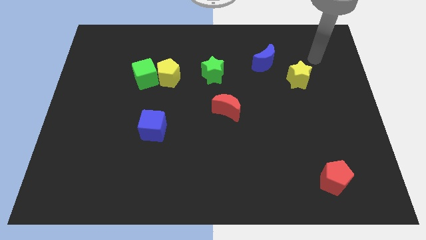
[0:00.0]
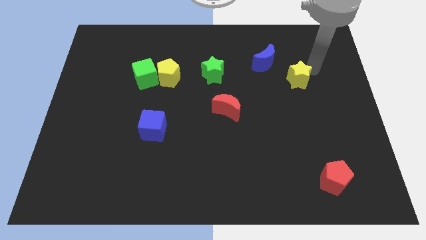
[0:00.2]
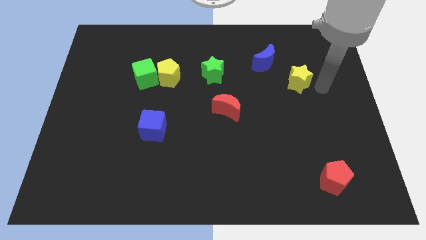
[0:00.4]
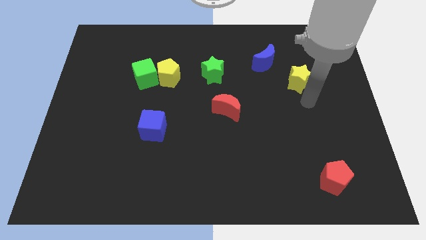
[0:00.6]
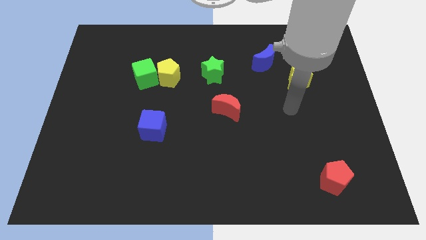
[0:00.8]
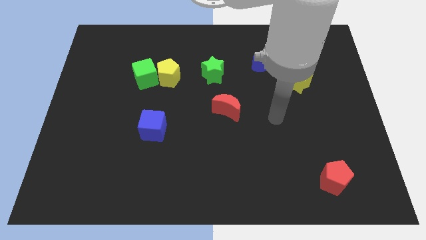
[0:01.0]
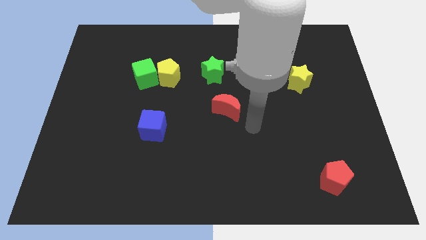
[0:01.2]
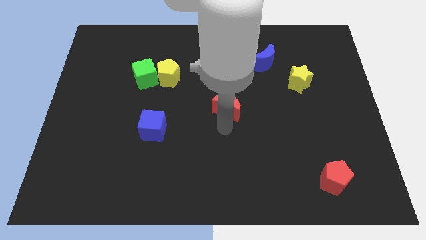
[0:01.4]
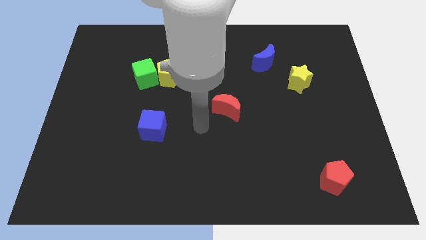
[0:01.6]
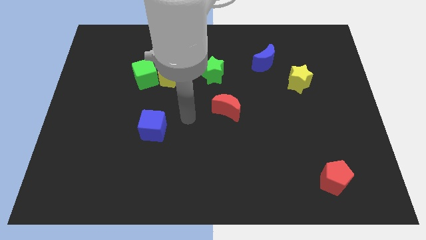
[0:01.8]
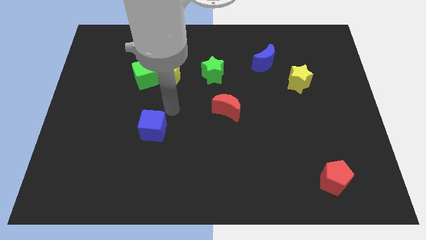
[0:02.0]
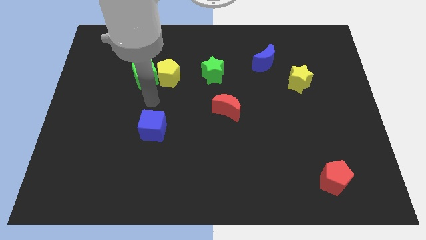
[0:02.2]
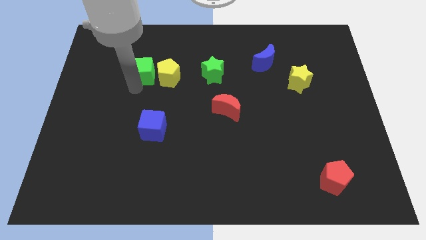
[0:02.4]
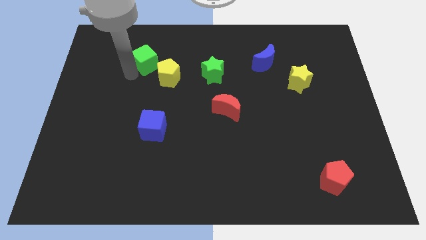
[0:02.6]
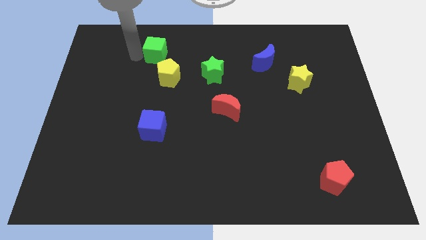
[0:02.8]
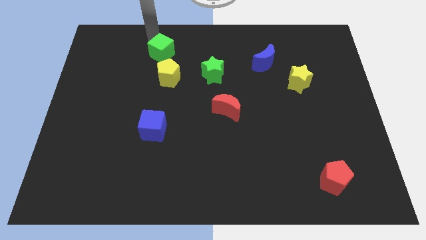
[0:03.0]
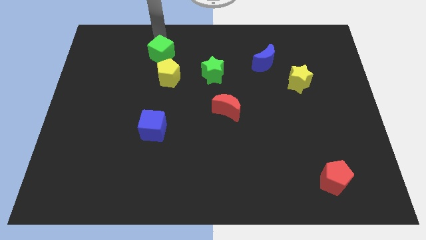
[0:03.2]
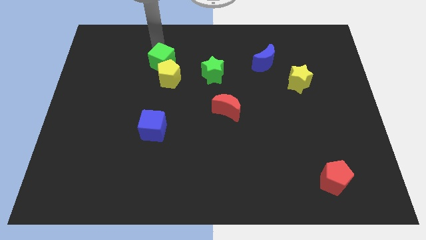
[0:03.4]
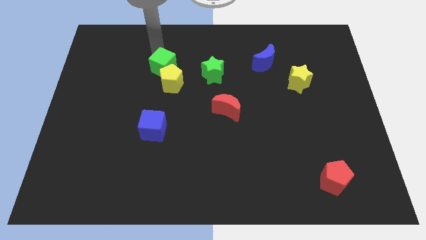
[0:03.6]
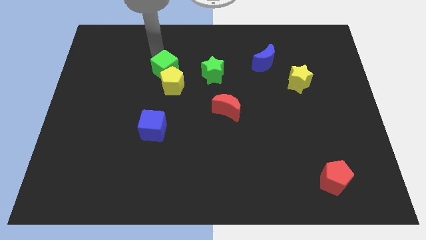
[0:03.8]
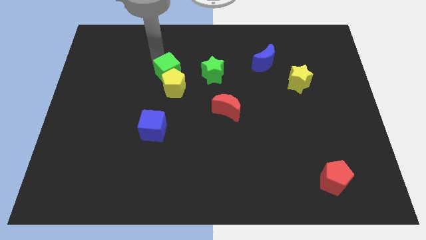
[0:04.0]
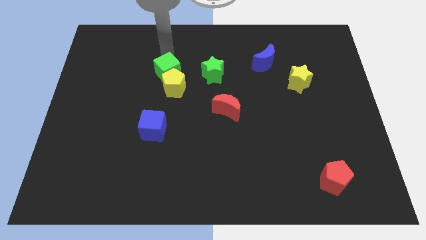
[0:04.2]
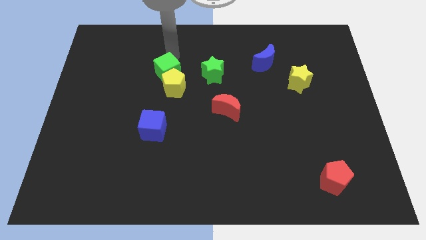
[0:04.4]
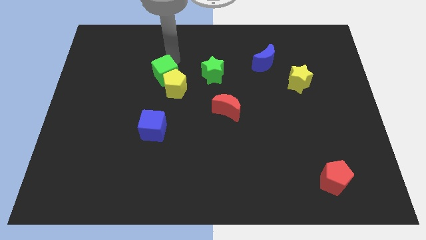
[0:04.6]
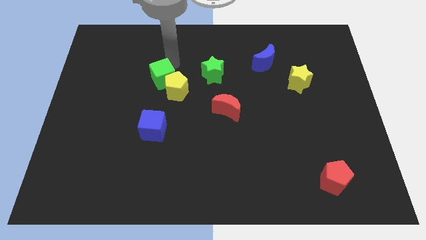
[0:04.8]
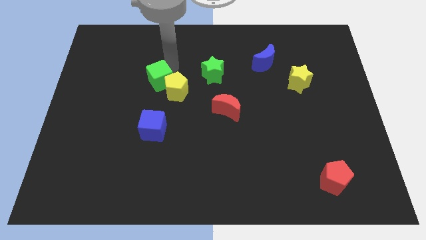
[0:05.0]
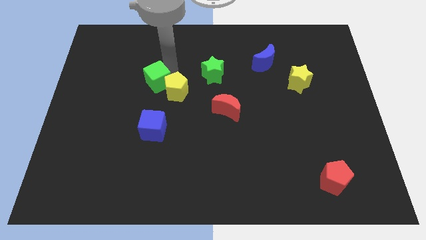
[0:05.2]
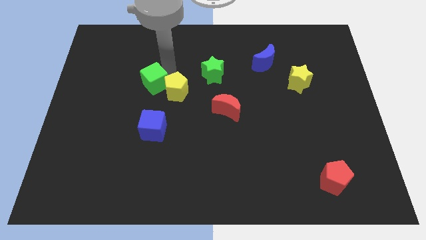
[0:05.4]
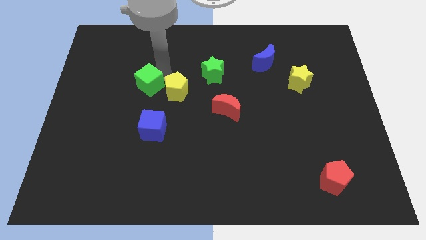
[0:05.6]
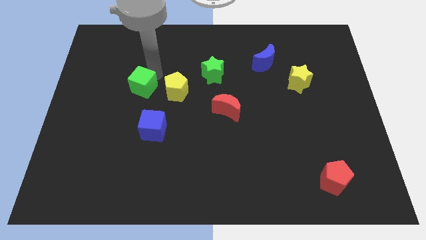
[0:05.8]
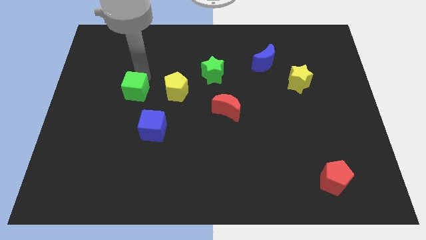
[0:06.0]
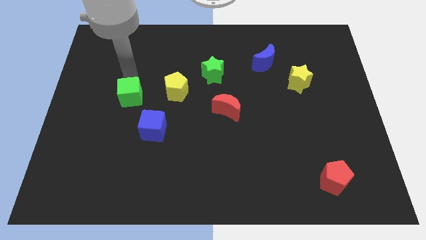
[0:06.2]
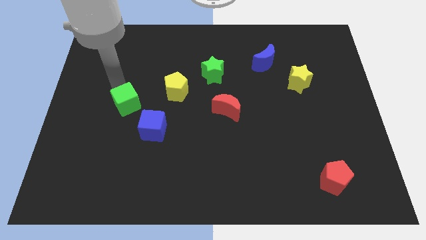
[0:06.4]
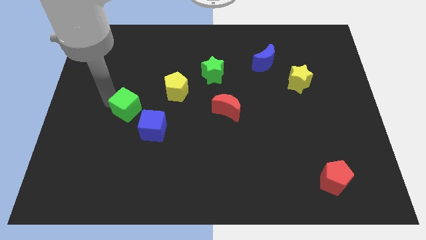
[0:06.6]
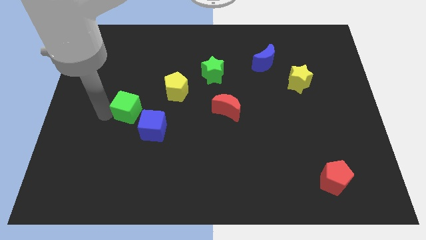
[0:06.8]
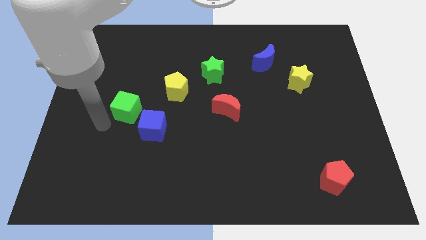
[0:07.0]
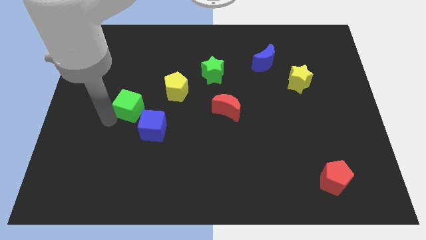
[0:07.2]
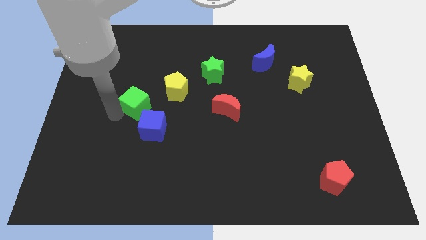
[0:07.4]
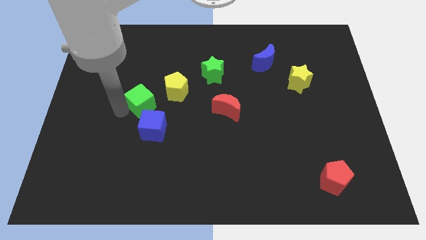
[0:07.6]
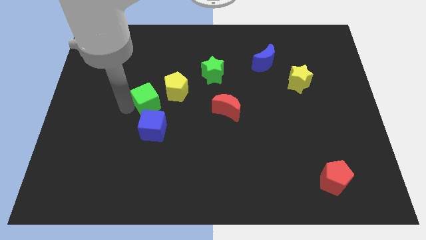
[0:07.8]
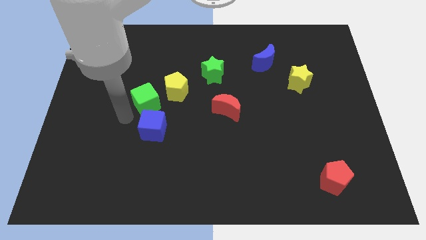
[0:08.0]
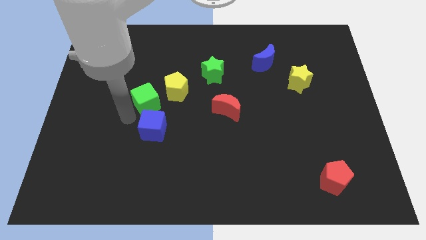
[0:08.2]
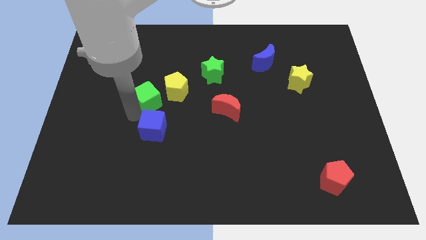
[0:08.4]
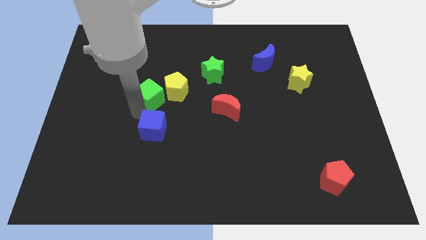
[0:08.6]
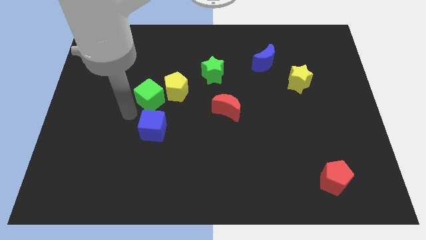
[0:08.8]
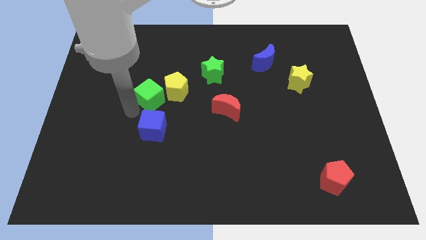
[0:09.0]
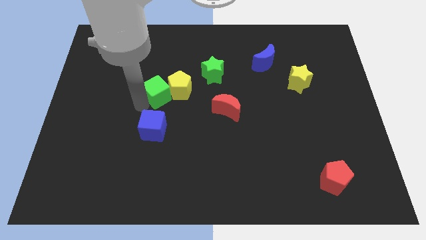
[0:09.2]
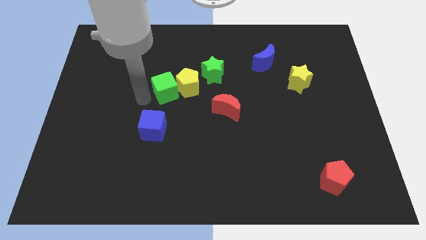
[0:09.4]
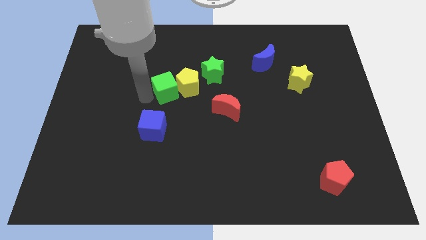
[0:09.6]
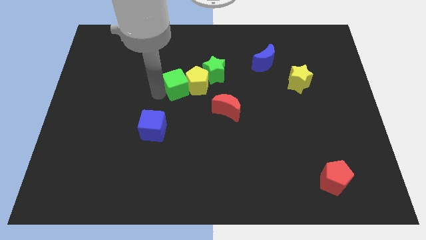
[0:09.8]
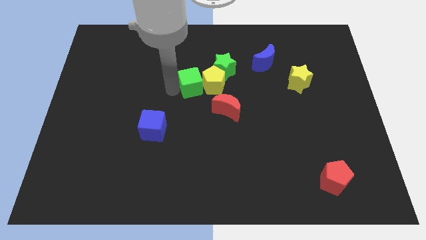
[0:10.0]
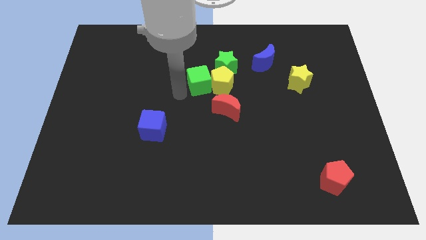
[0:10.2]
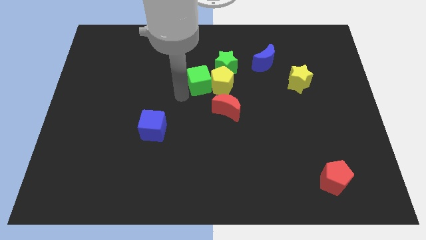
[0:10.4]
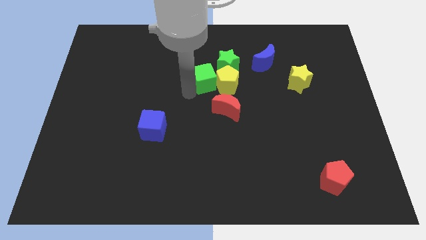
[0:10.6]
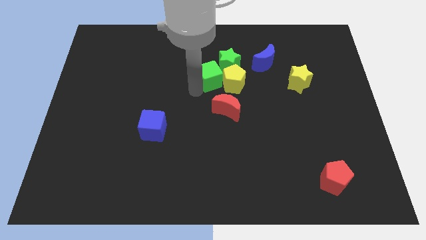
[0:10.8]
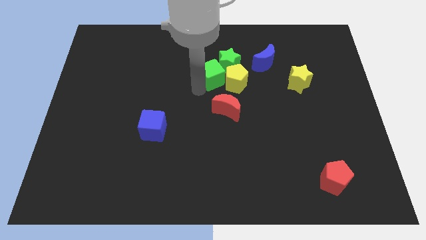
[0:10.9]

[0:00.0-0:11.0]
move the green cube towards the green star
